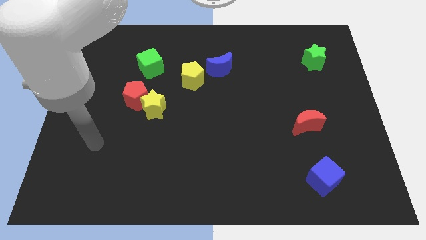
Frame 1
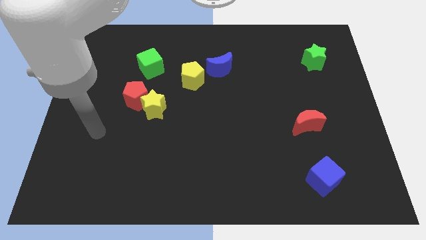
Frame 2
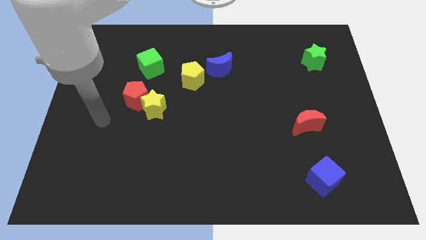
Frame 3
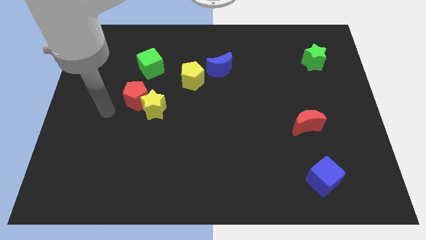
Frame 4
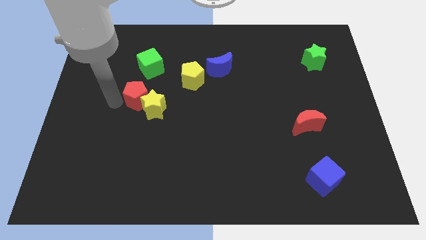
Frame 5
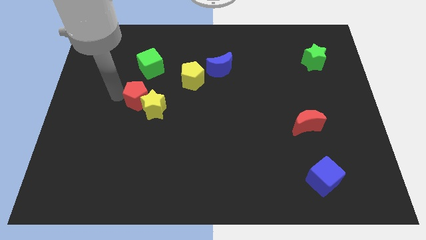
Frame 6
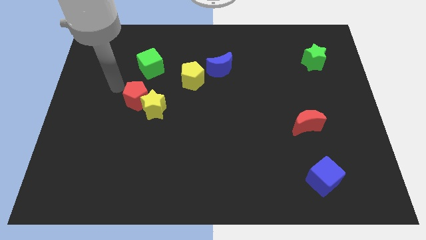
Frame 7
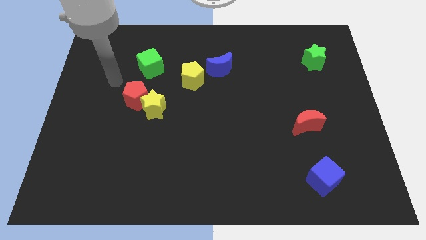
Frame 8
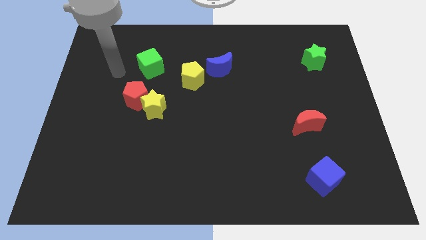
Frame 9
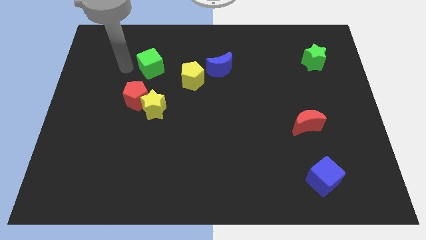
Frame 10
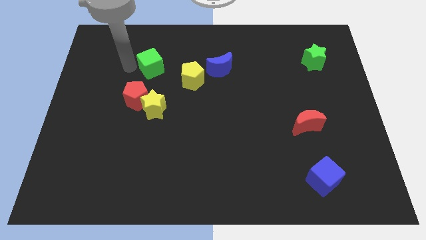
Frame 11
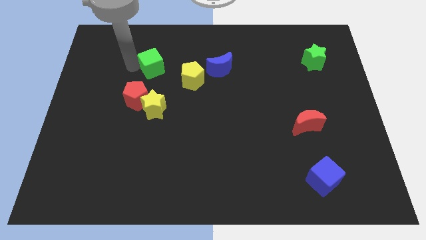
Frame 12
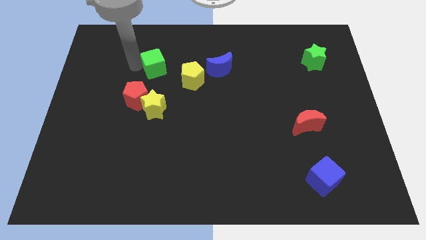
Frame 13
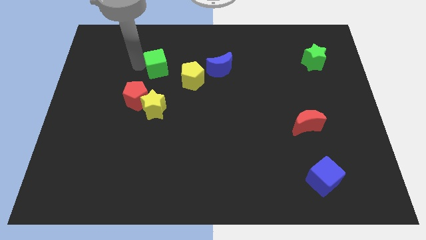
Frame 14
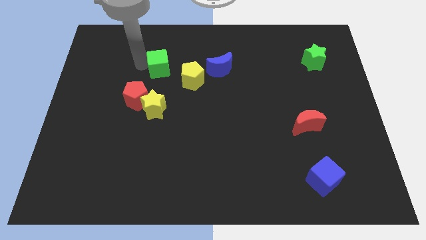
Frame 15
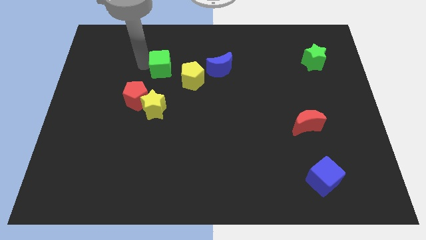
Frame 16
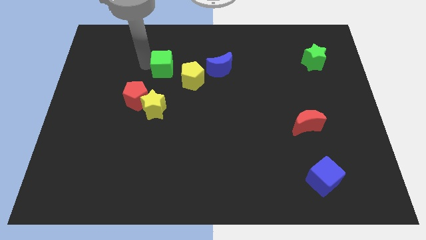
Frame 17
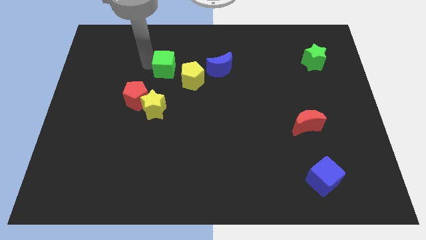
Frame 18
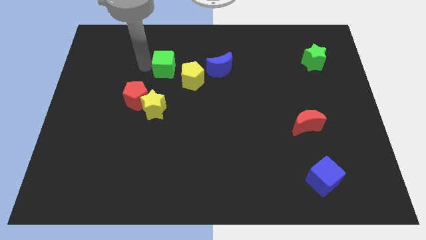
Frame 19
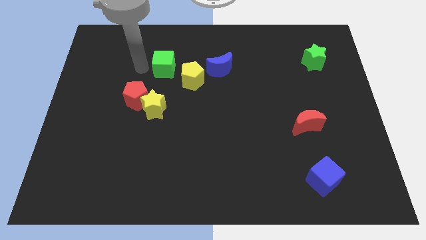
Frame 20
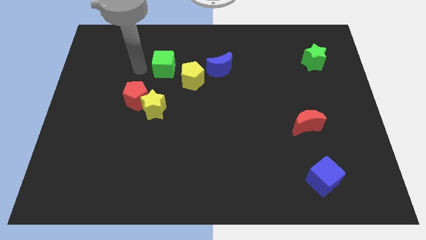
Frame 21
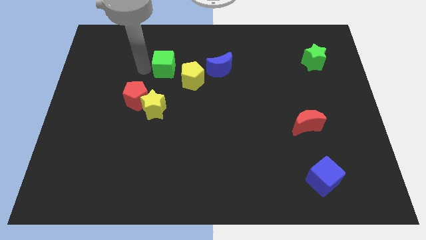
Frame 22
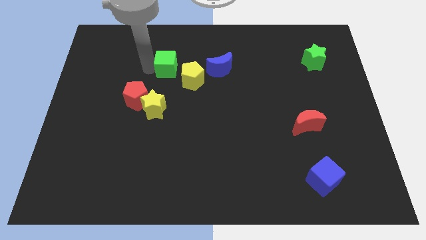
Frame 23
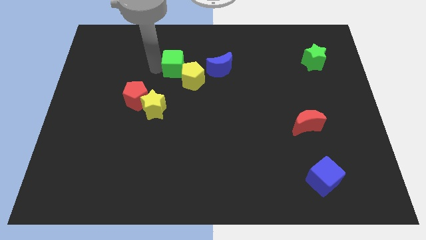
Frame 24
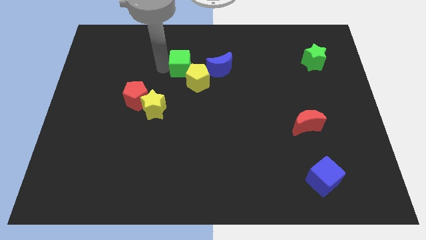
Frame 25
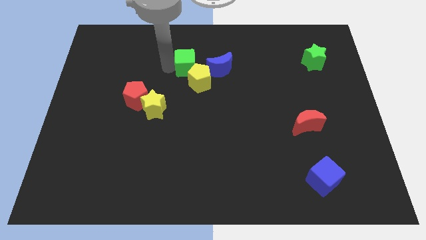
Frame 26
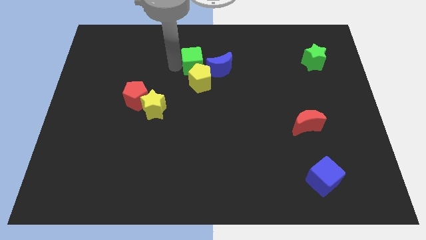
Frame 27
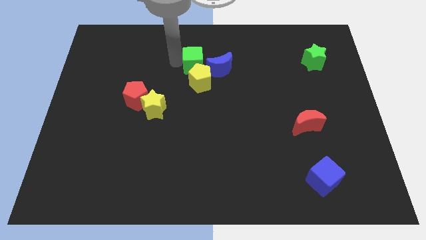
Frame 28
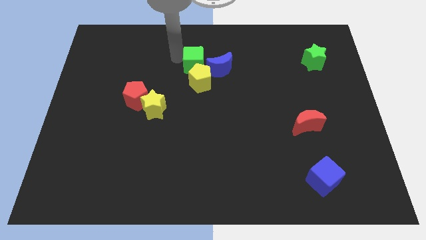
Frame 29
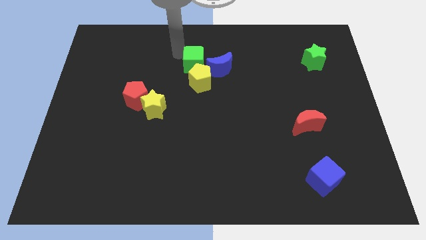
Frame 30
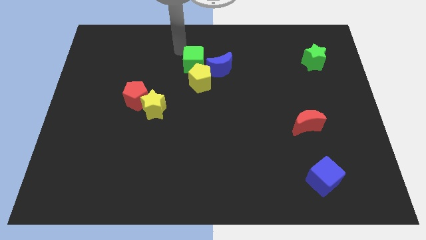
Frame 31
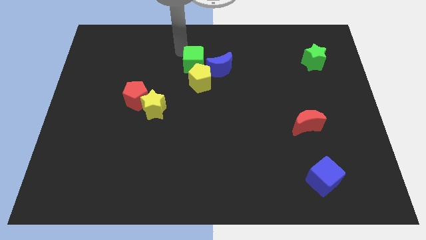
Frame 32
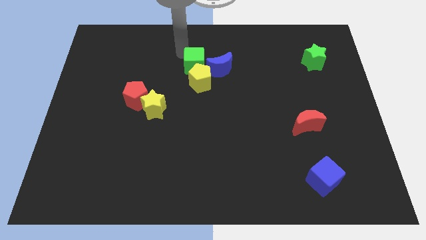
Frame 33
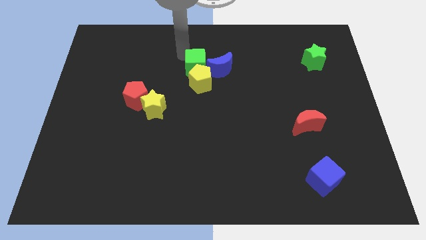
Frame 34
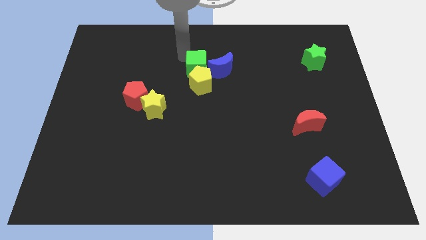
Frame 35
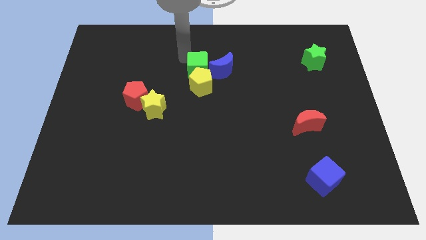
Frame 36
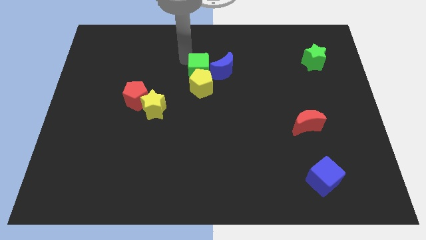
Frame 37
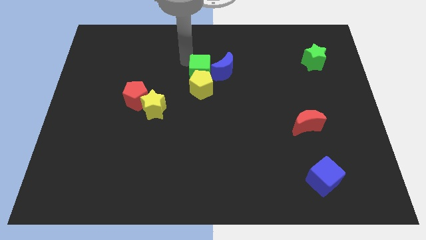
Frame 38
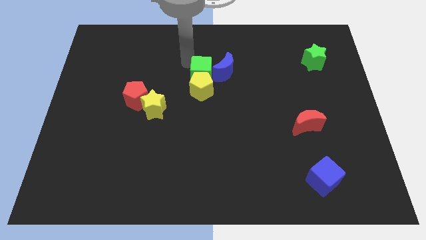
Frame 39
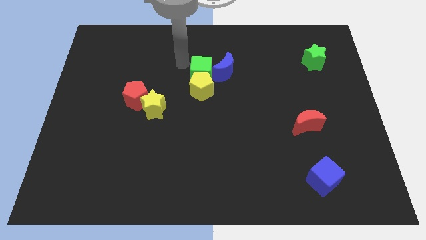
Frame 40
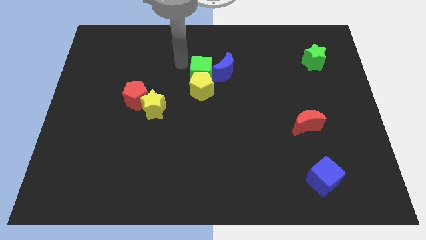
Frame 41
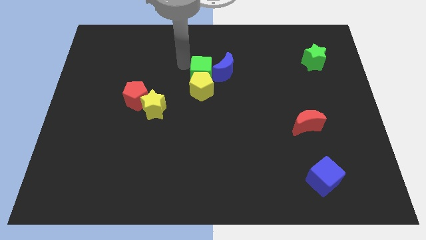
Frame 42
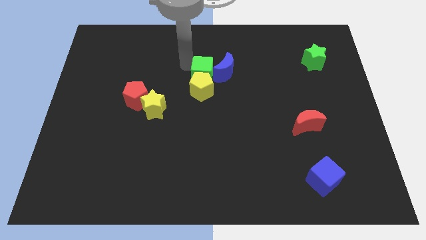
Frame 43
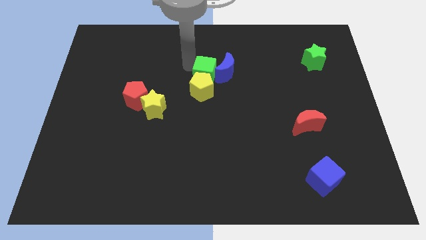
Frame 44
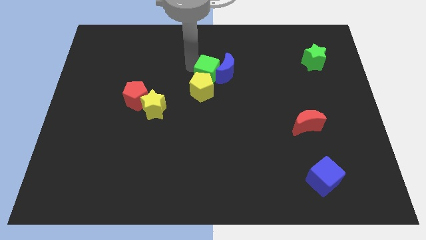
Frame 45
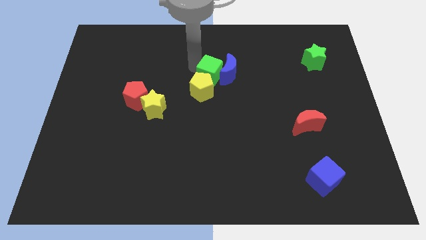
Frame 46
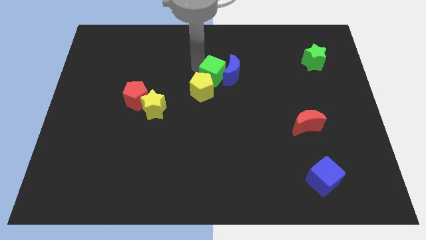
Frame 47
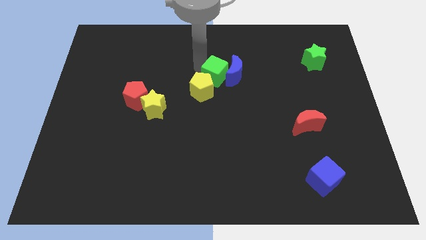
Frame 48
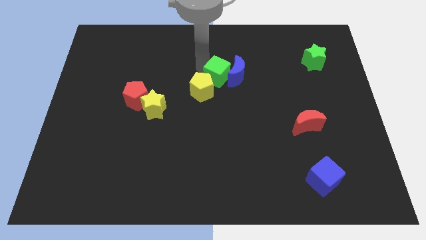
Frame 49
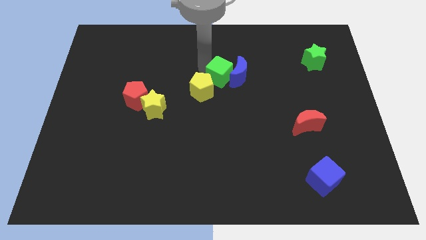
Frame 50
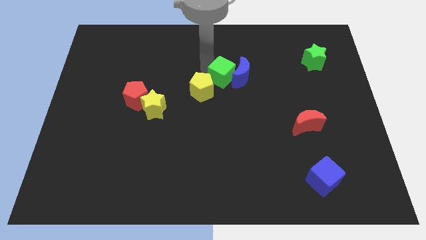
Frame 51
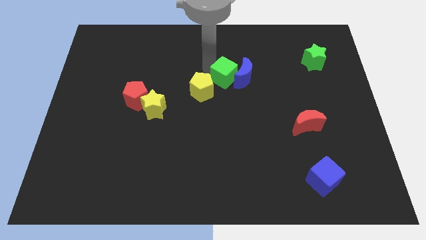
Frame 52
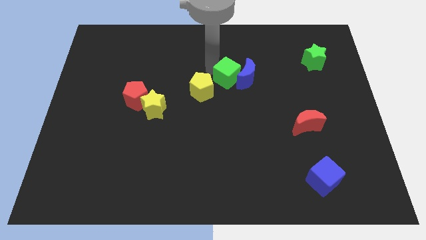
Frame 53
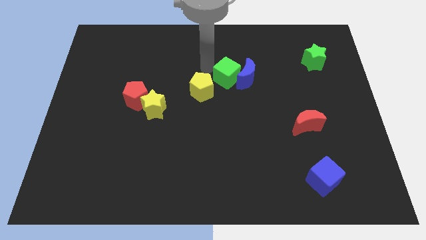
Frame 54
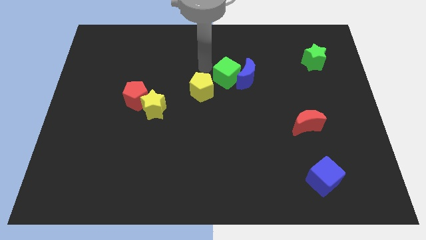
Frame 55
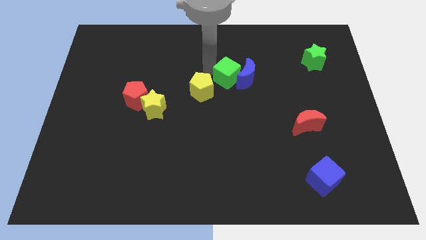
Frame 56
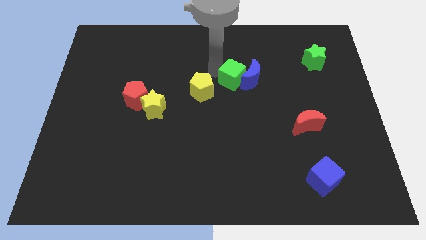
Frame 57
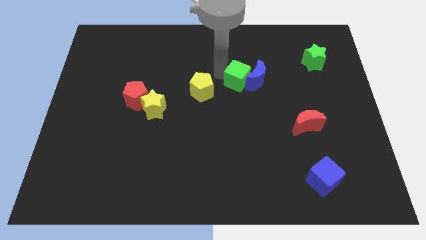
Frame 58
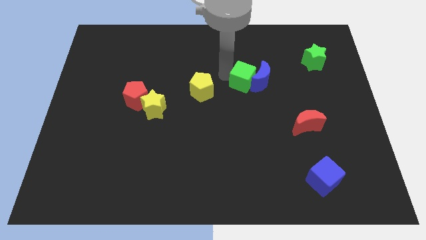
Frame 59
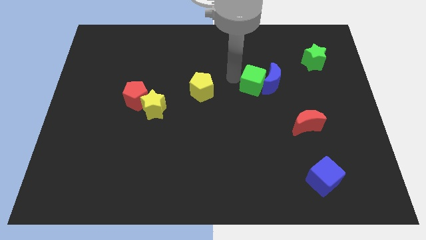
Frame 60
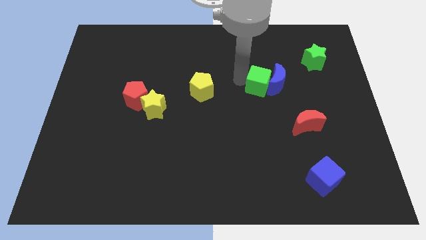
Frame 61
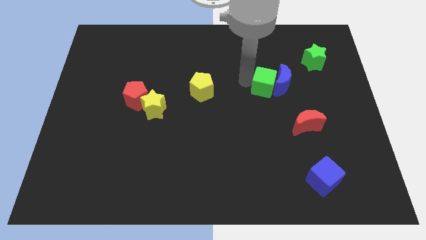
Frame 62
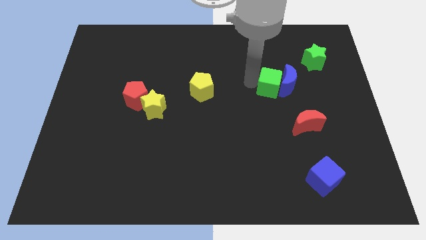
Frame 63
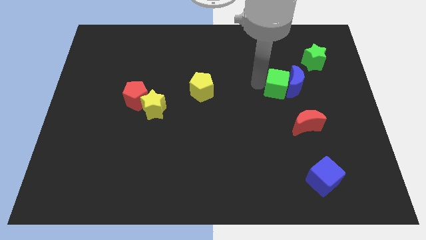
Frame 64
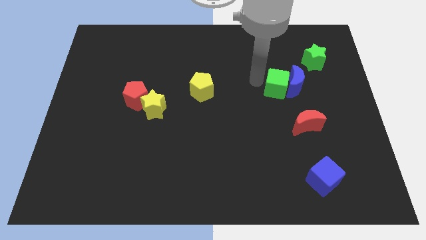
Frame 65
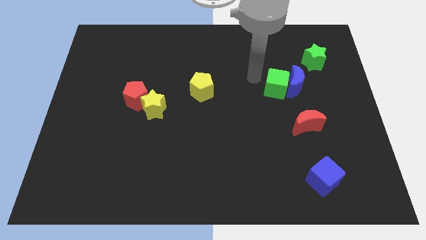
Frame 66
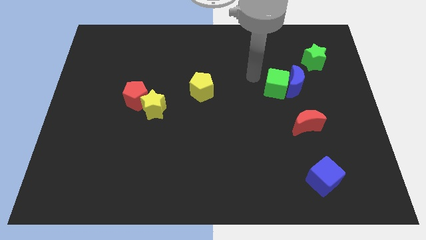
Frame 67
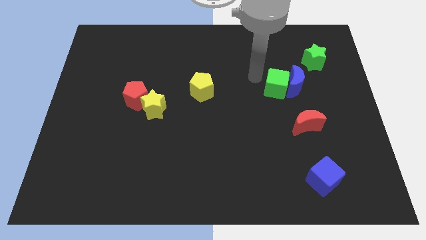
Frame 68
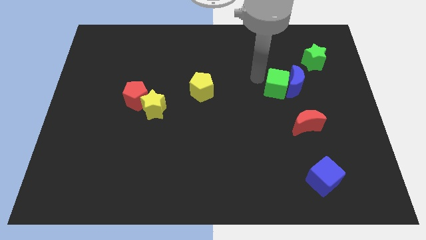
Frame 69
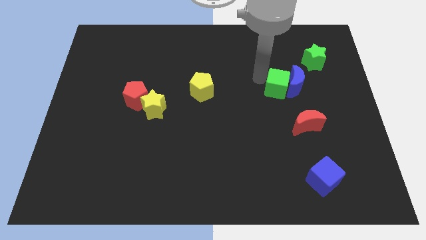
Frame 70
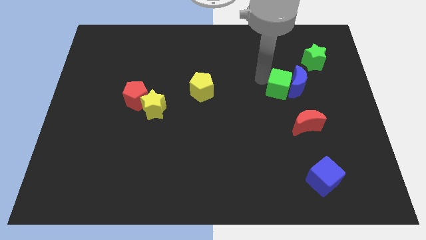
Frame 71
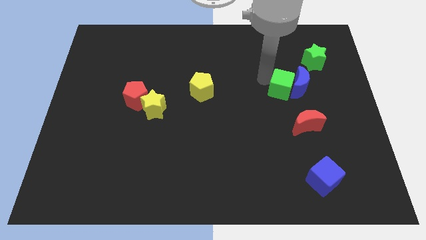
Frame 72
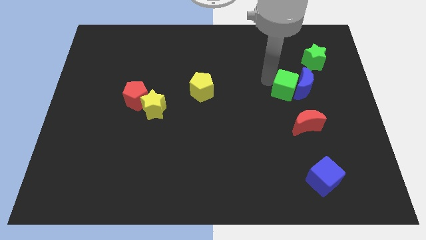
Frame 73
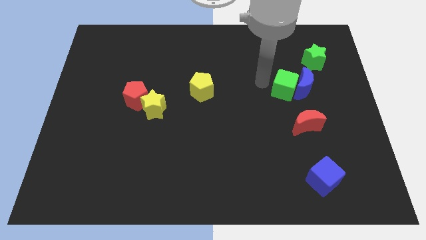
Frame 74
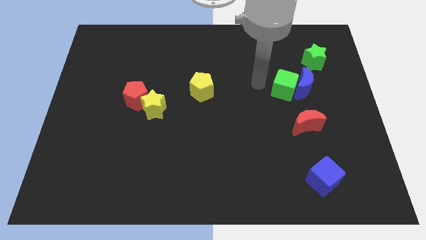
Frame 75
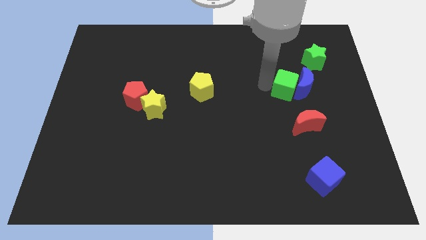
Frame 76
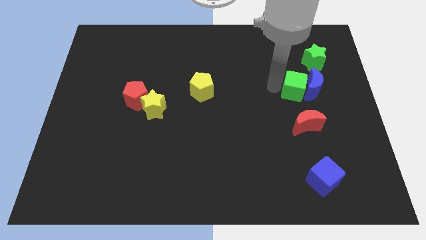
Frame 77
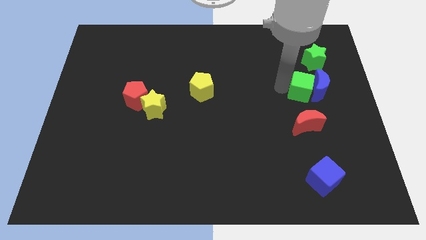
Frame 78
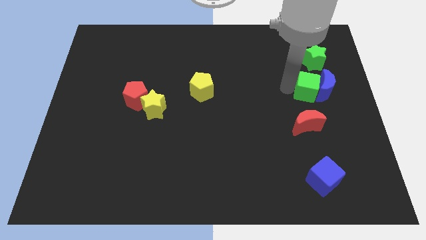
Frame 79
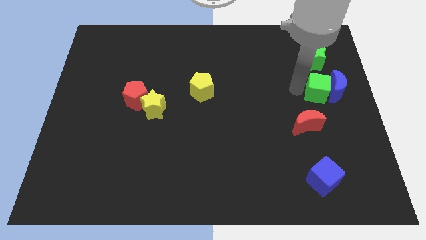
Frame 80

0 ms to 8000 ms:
put the green cube to the center right
